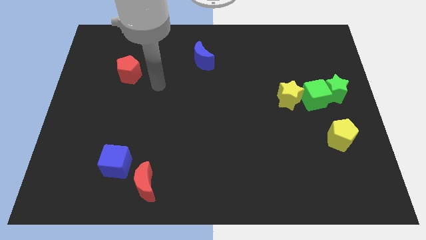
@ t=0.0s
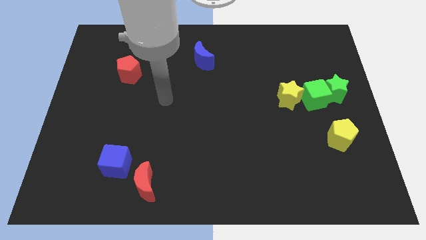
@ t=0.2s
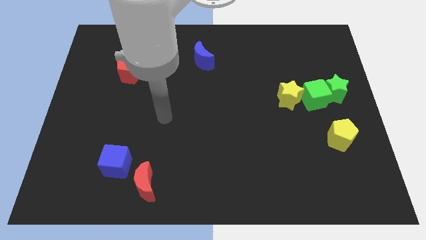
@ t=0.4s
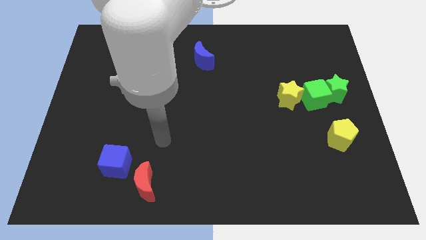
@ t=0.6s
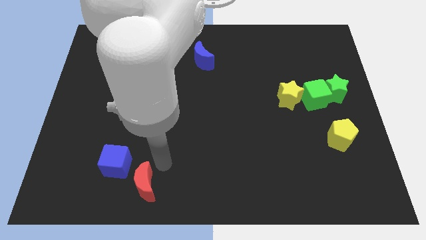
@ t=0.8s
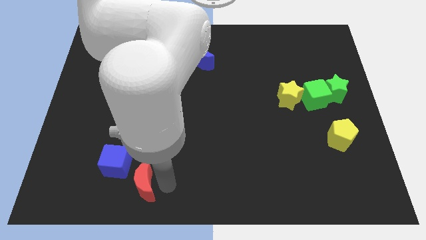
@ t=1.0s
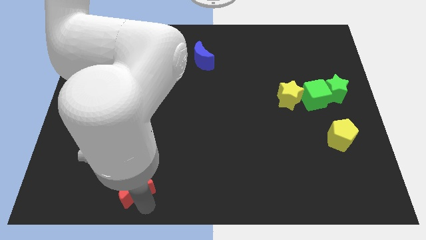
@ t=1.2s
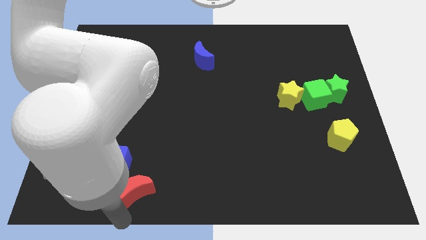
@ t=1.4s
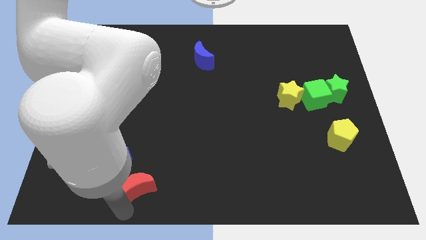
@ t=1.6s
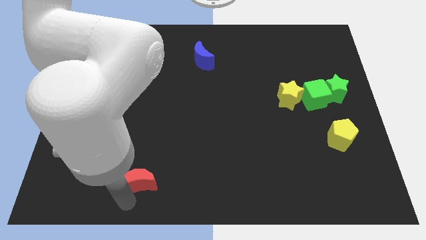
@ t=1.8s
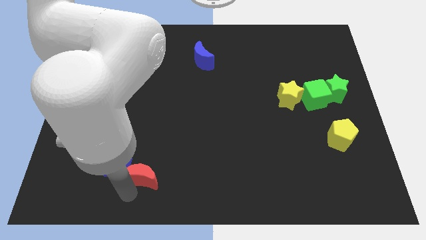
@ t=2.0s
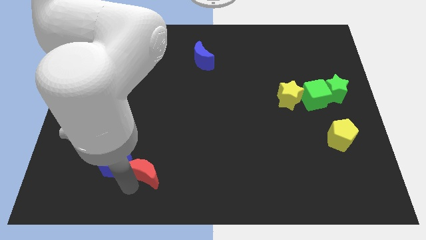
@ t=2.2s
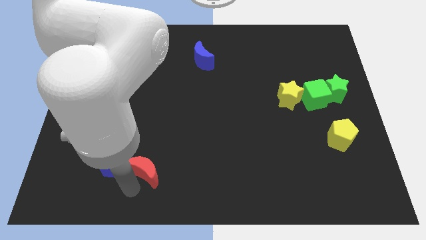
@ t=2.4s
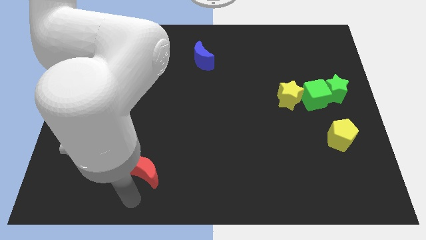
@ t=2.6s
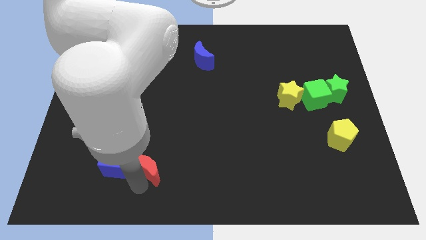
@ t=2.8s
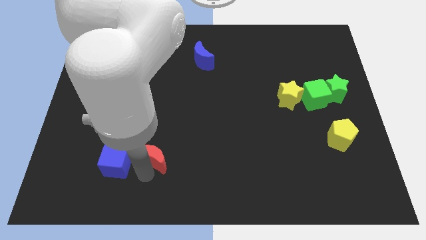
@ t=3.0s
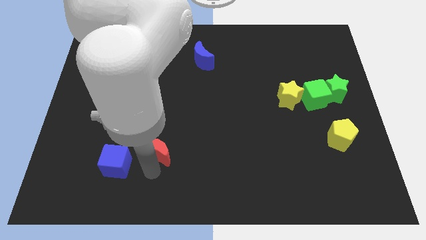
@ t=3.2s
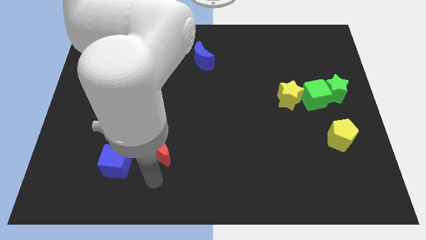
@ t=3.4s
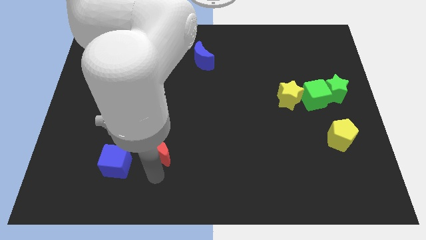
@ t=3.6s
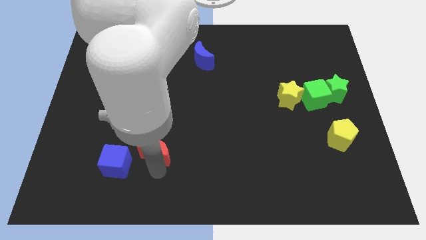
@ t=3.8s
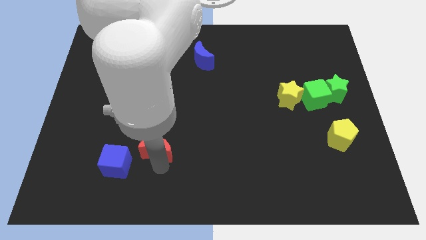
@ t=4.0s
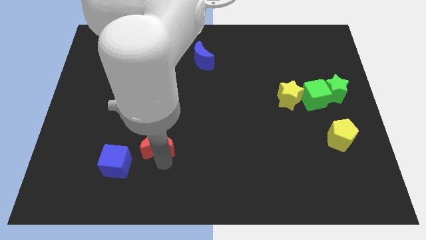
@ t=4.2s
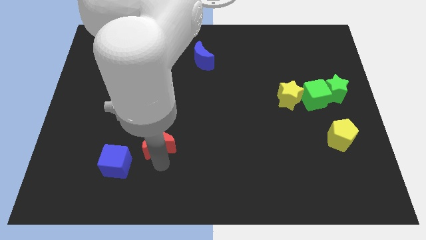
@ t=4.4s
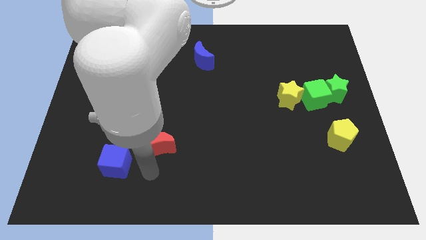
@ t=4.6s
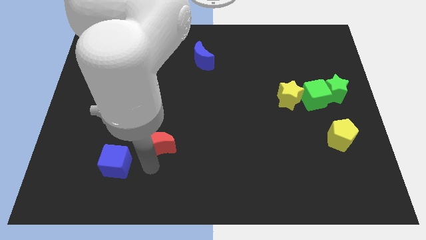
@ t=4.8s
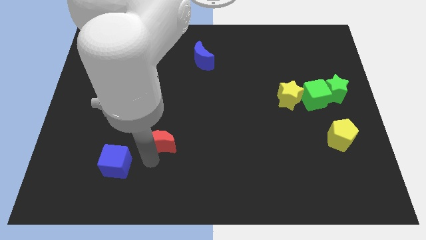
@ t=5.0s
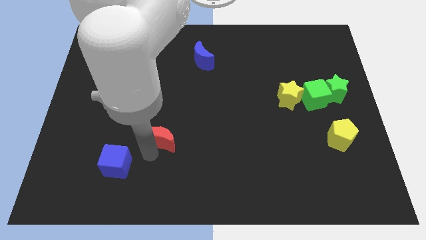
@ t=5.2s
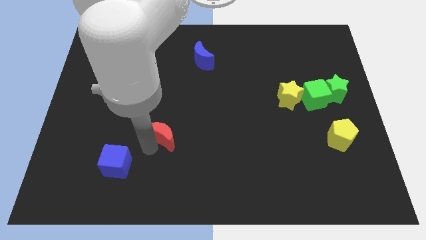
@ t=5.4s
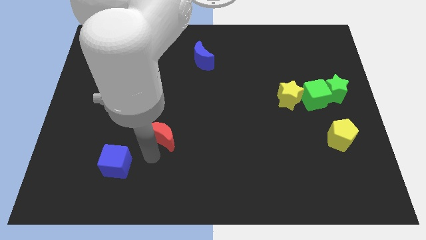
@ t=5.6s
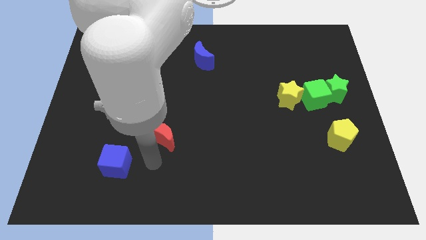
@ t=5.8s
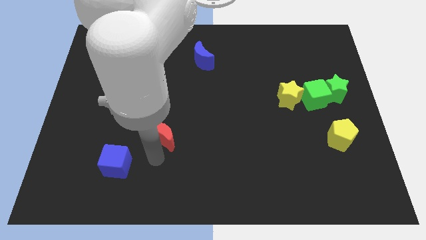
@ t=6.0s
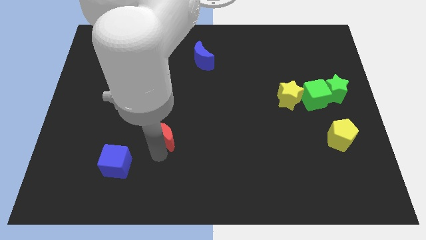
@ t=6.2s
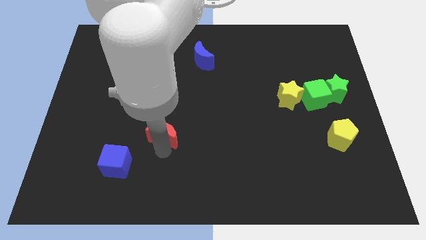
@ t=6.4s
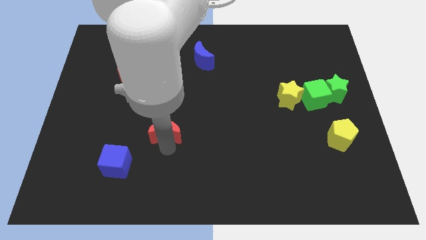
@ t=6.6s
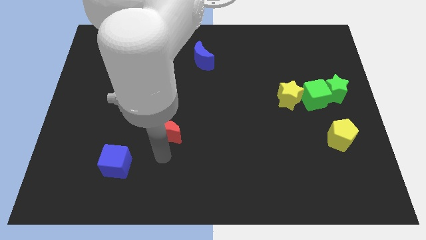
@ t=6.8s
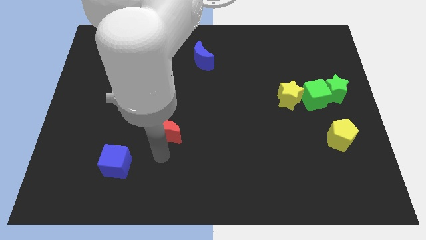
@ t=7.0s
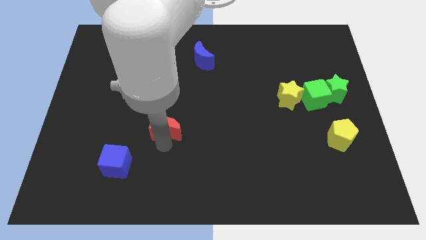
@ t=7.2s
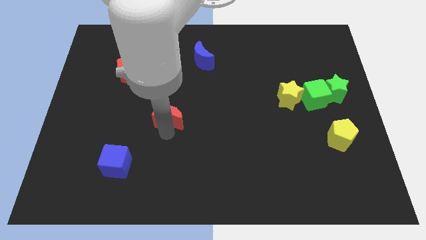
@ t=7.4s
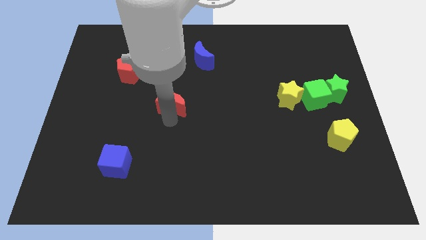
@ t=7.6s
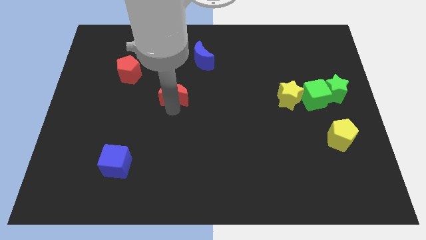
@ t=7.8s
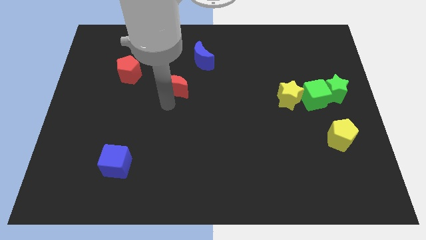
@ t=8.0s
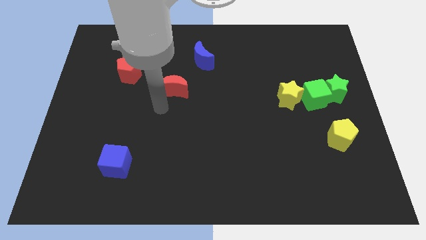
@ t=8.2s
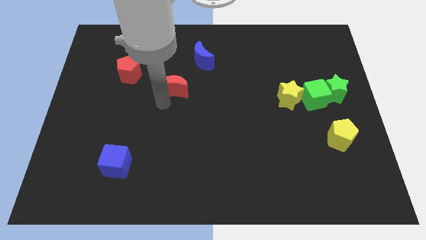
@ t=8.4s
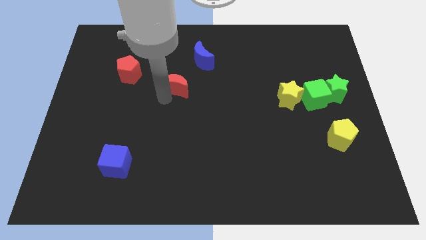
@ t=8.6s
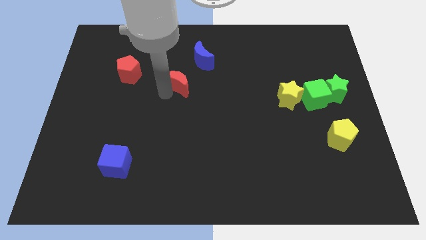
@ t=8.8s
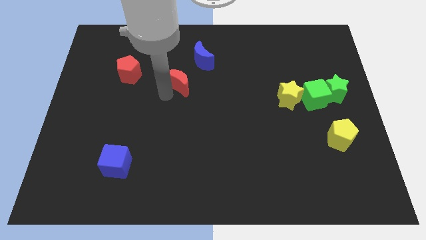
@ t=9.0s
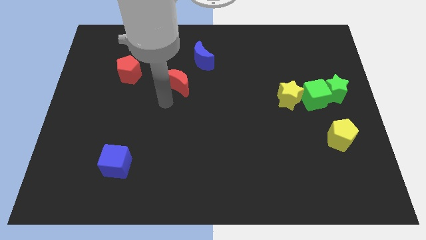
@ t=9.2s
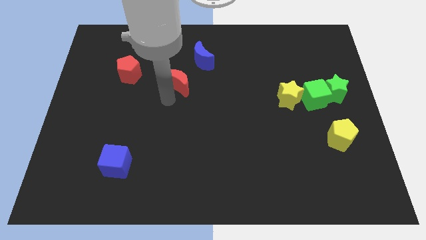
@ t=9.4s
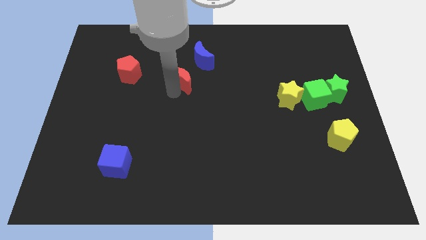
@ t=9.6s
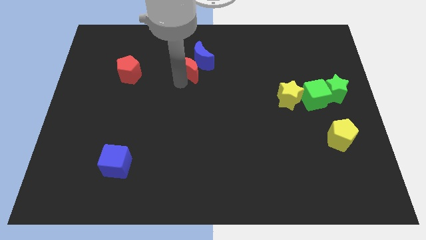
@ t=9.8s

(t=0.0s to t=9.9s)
slide the red moon towards the blue moon

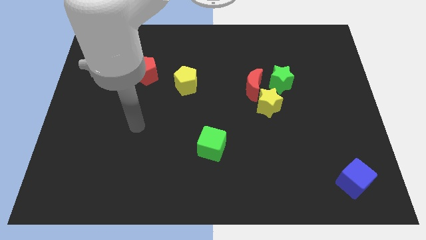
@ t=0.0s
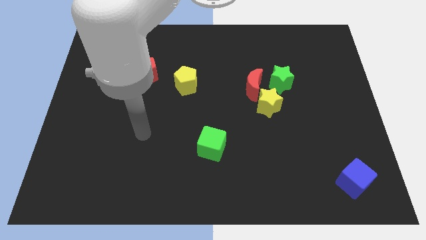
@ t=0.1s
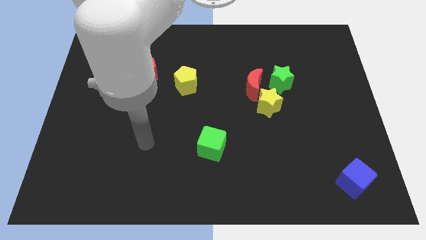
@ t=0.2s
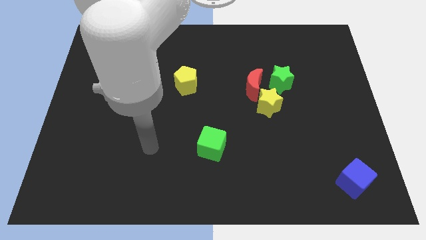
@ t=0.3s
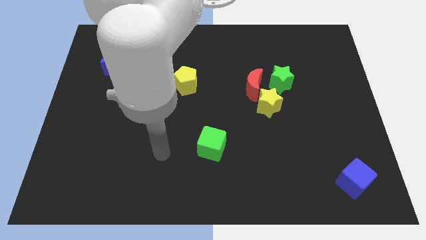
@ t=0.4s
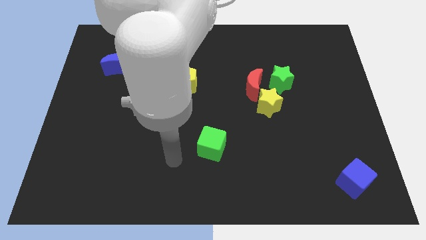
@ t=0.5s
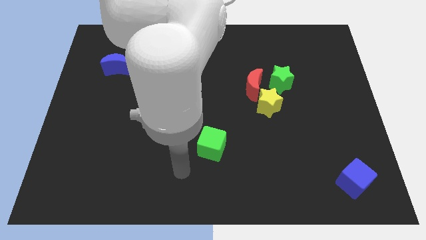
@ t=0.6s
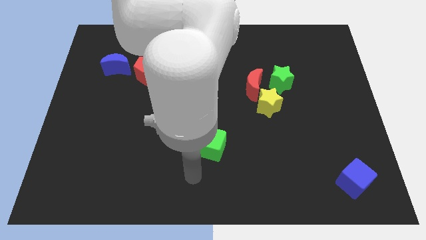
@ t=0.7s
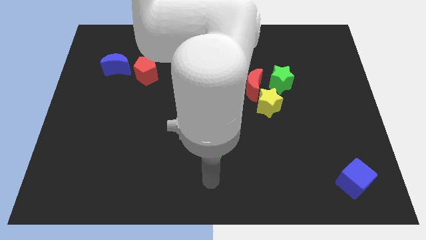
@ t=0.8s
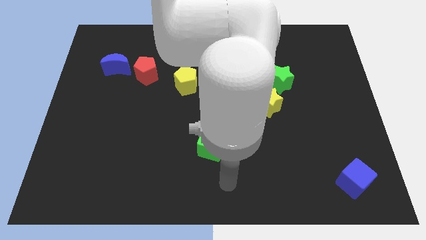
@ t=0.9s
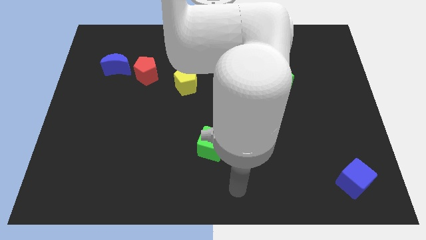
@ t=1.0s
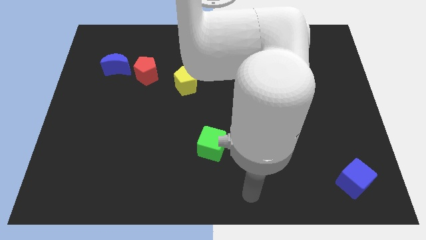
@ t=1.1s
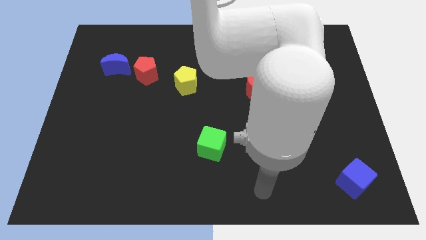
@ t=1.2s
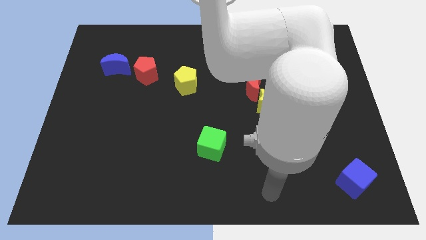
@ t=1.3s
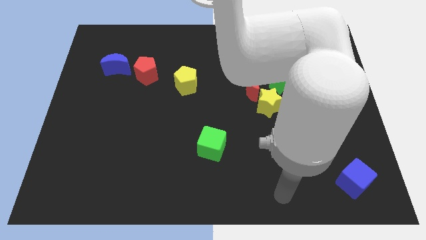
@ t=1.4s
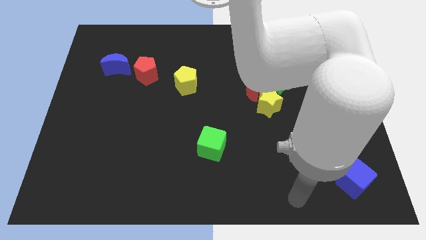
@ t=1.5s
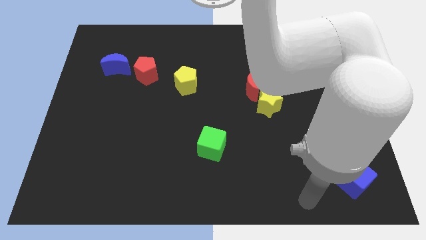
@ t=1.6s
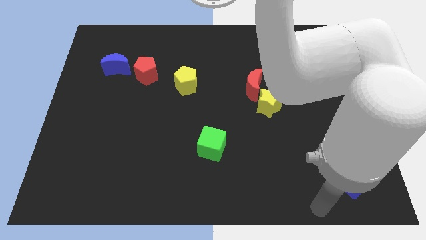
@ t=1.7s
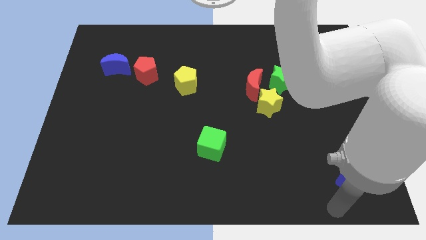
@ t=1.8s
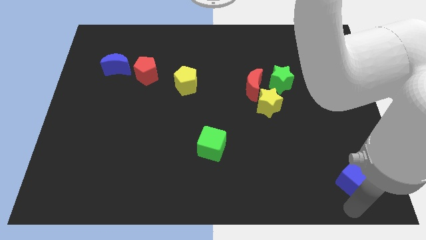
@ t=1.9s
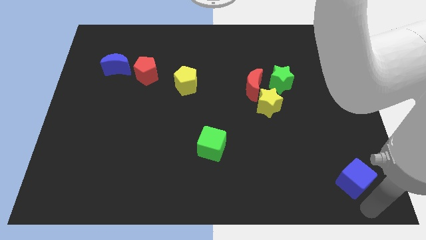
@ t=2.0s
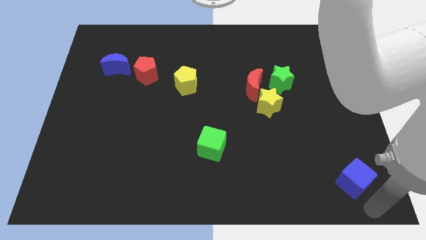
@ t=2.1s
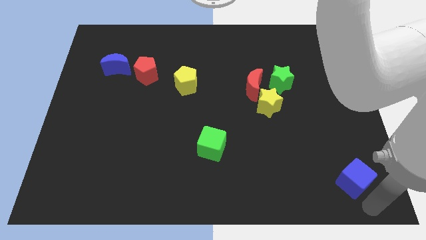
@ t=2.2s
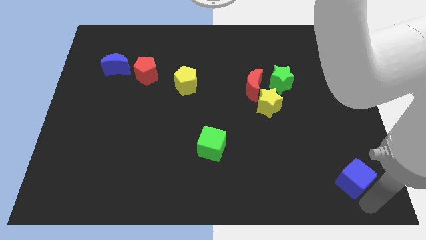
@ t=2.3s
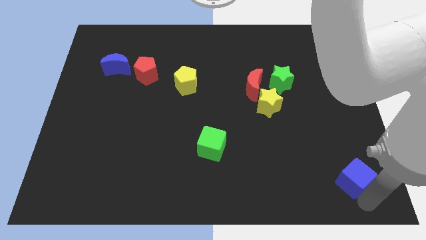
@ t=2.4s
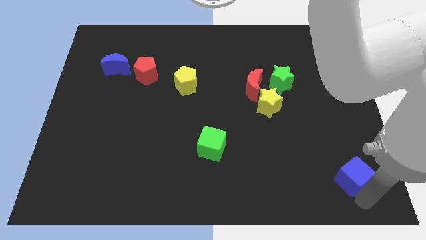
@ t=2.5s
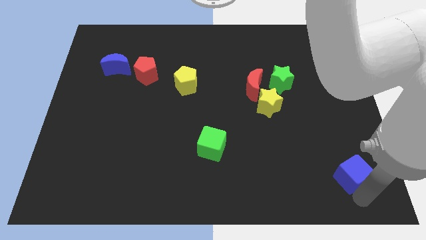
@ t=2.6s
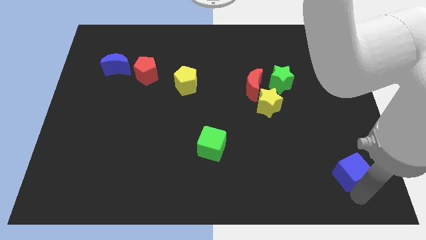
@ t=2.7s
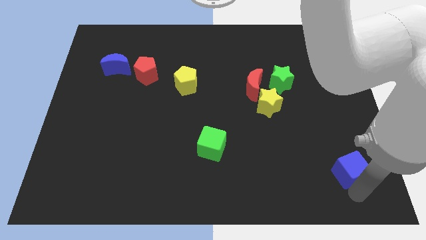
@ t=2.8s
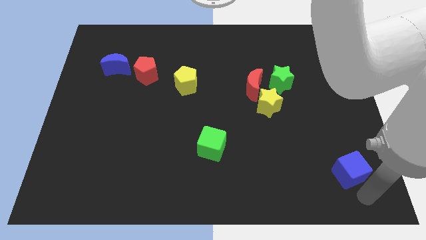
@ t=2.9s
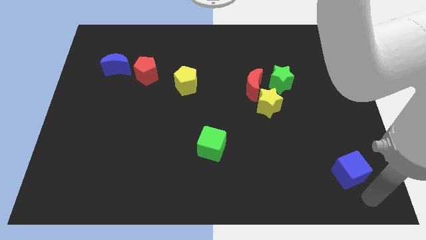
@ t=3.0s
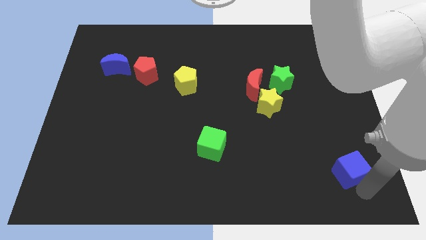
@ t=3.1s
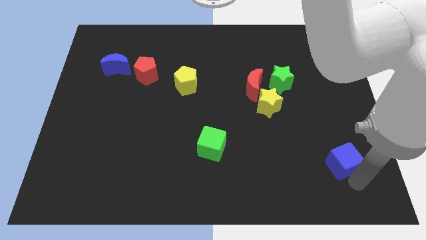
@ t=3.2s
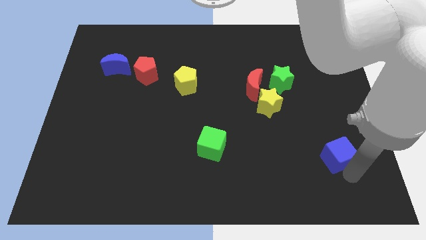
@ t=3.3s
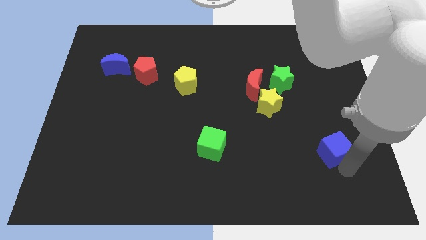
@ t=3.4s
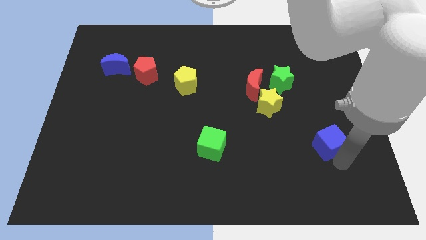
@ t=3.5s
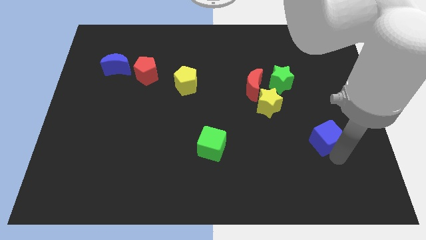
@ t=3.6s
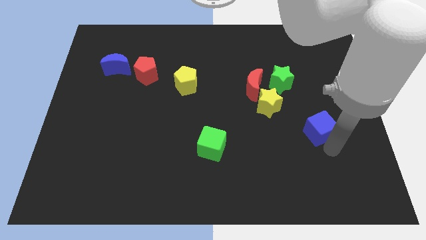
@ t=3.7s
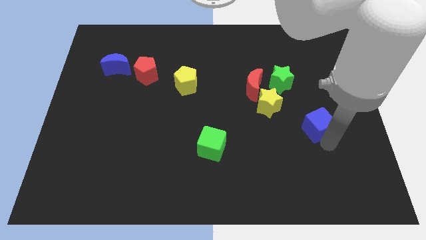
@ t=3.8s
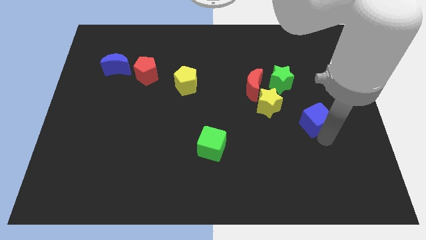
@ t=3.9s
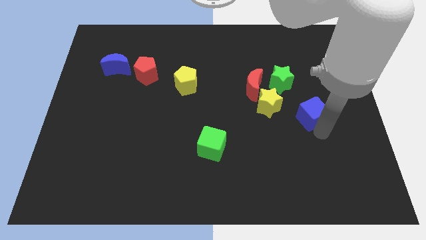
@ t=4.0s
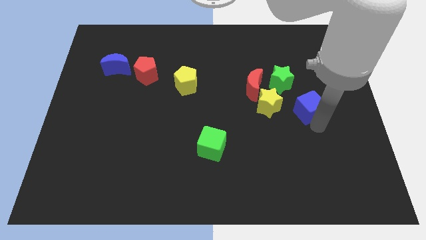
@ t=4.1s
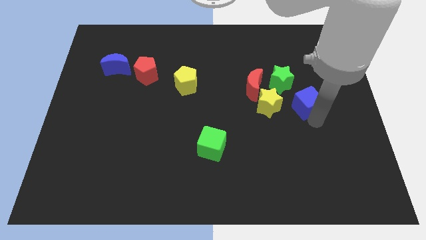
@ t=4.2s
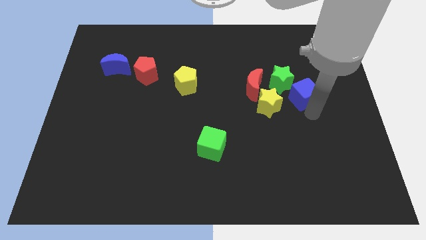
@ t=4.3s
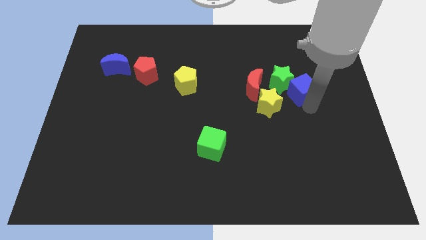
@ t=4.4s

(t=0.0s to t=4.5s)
slide the blue cube to the green star
